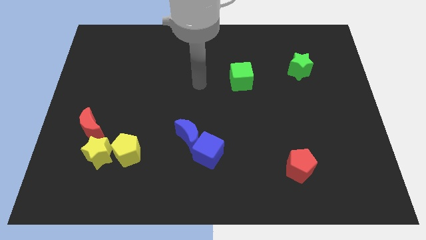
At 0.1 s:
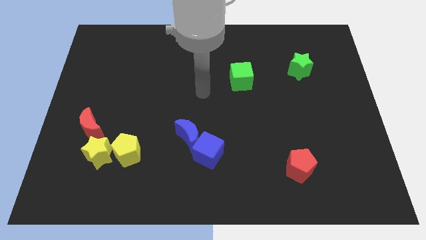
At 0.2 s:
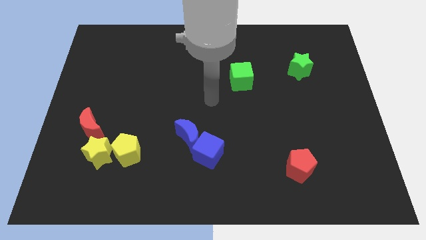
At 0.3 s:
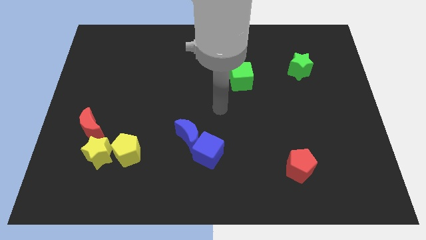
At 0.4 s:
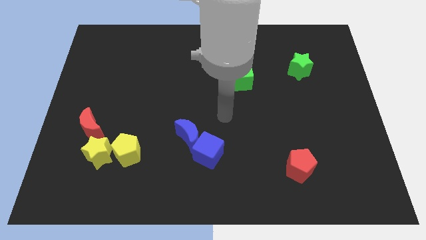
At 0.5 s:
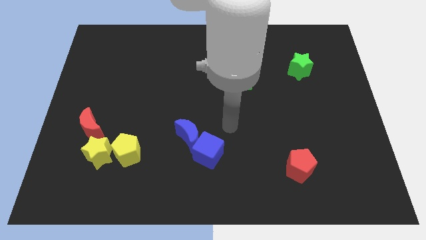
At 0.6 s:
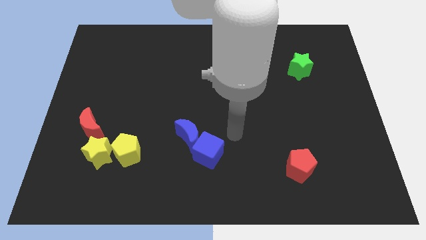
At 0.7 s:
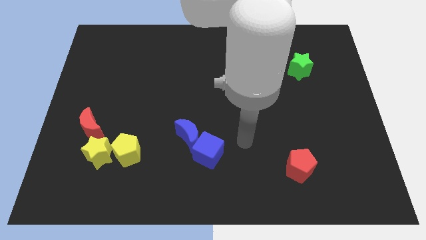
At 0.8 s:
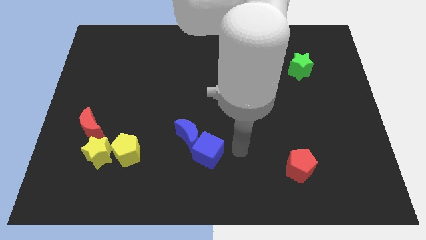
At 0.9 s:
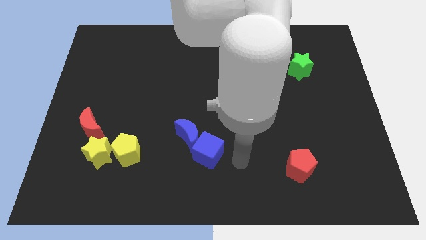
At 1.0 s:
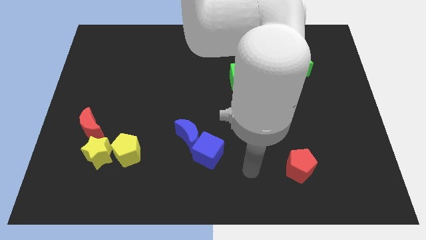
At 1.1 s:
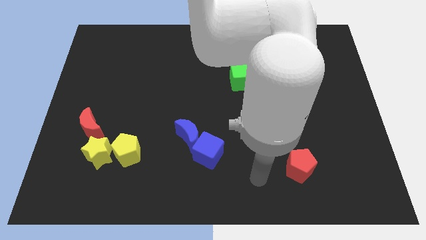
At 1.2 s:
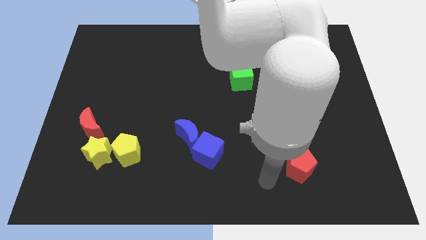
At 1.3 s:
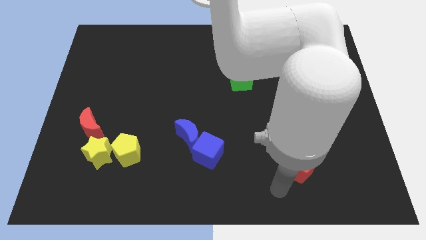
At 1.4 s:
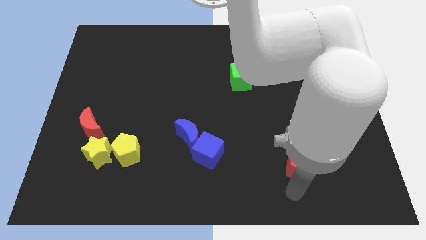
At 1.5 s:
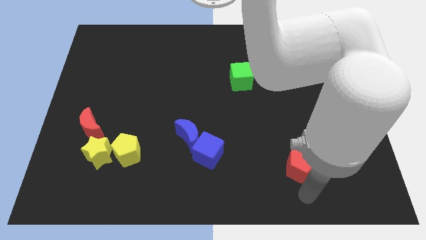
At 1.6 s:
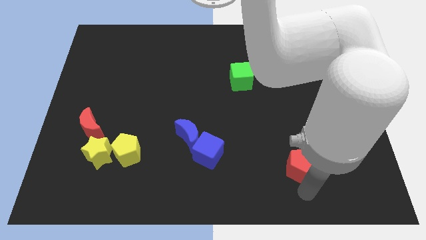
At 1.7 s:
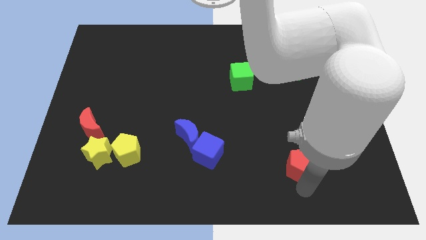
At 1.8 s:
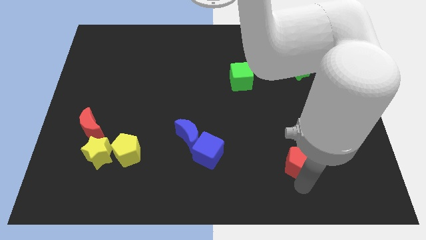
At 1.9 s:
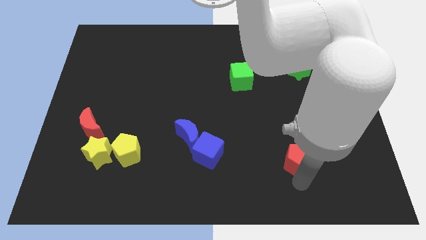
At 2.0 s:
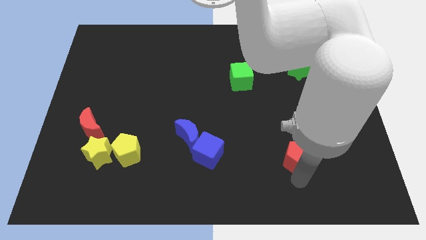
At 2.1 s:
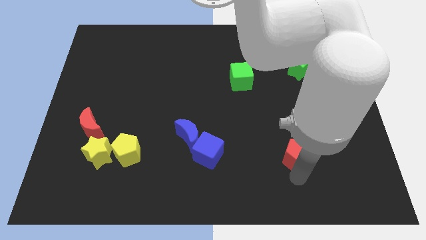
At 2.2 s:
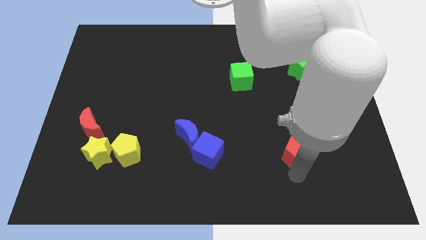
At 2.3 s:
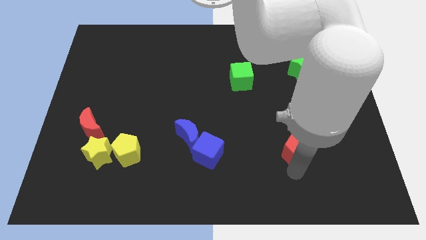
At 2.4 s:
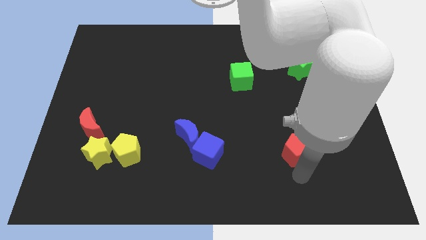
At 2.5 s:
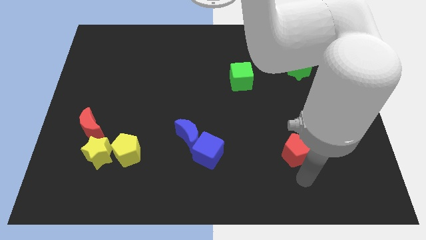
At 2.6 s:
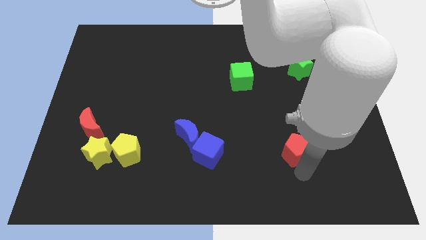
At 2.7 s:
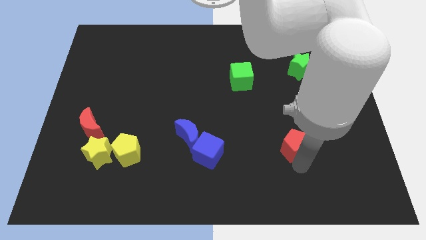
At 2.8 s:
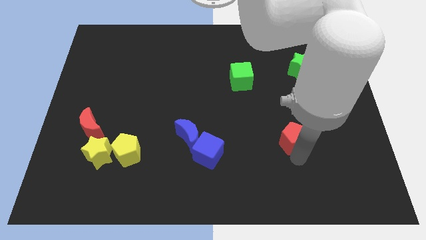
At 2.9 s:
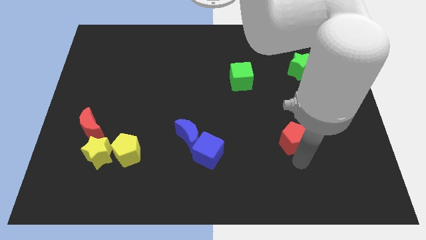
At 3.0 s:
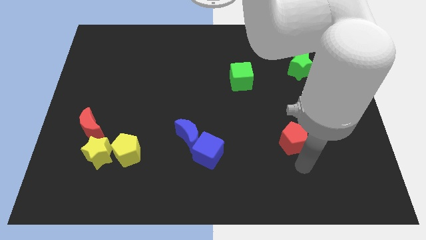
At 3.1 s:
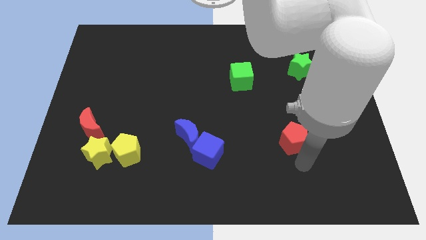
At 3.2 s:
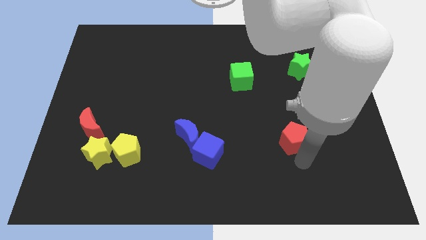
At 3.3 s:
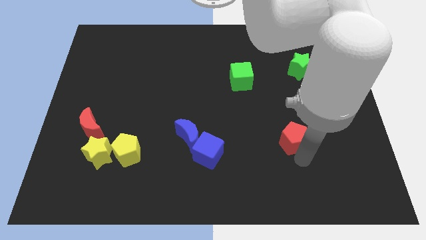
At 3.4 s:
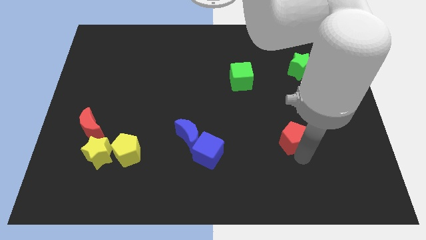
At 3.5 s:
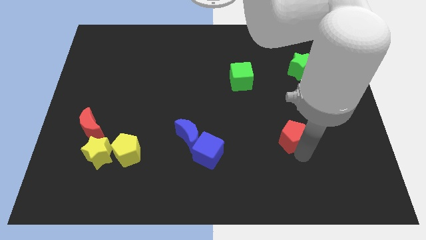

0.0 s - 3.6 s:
move the red pentagon up a bit

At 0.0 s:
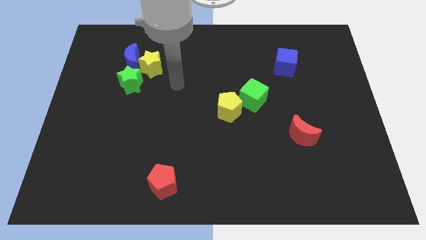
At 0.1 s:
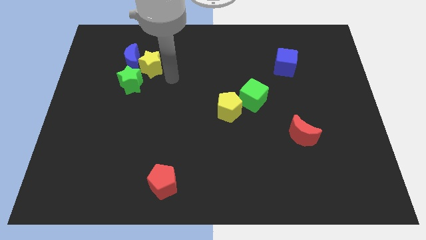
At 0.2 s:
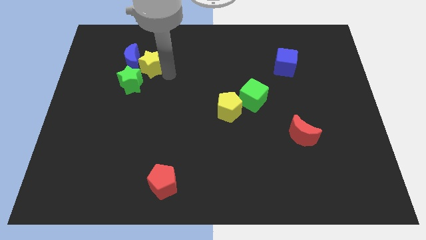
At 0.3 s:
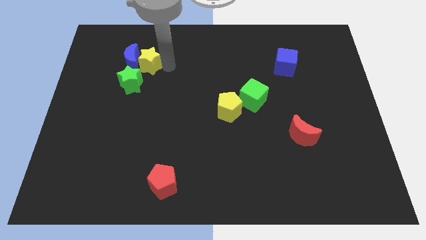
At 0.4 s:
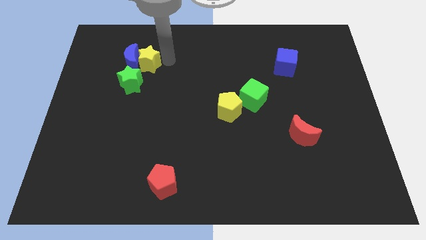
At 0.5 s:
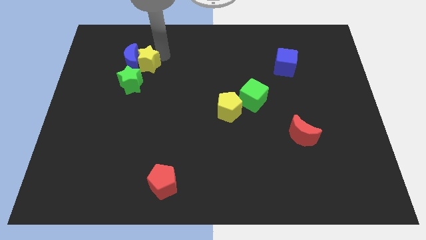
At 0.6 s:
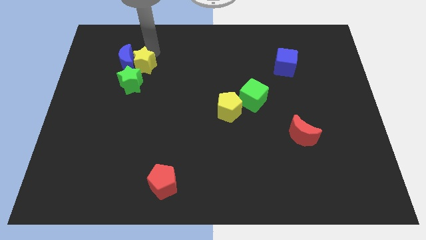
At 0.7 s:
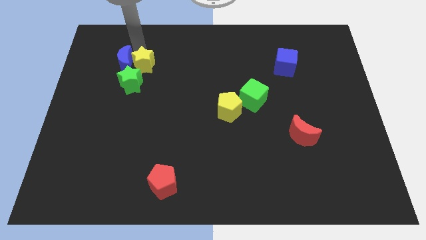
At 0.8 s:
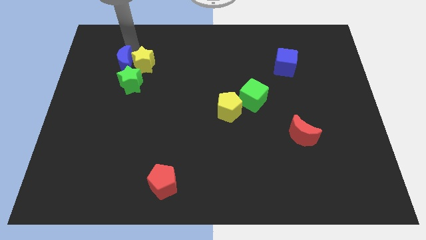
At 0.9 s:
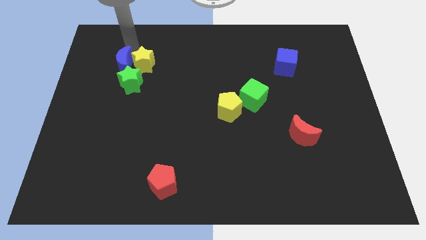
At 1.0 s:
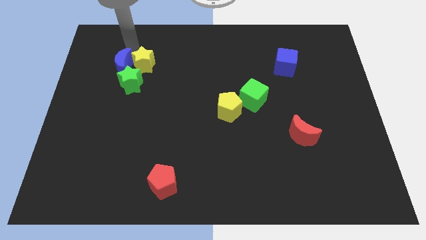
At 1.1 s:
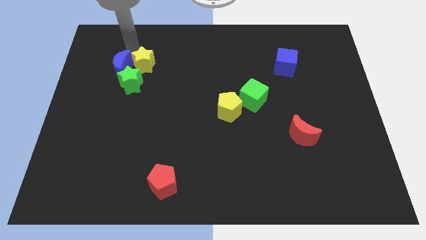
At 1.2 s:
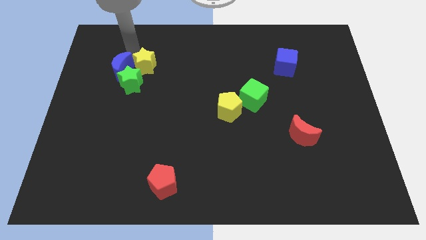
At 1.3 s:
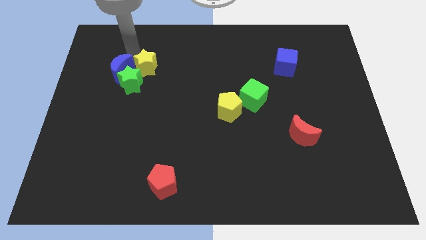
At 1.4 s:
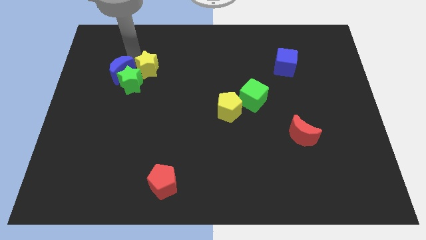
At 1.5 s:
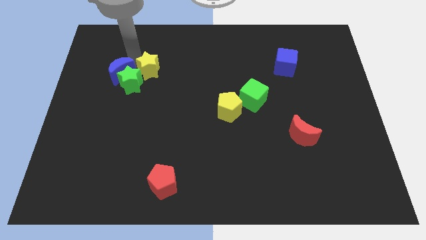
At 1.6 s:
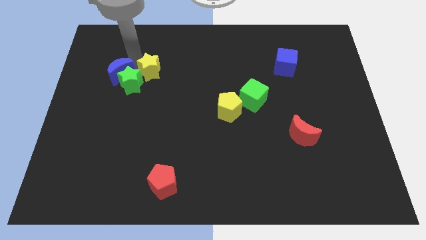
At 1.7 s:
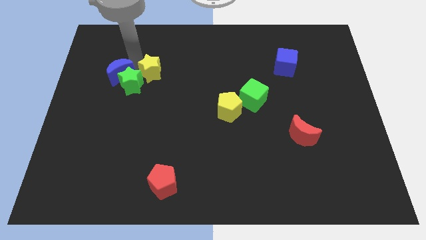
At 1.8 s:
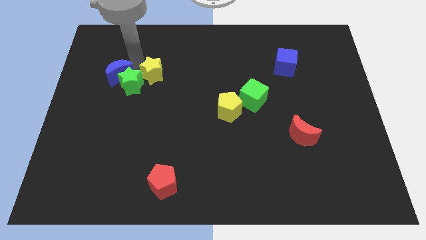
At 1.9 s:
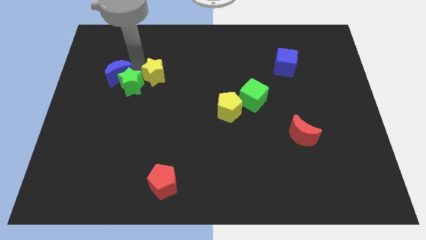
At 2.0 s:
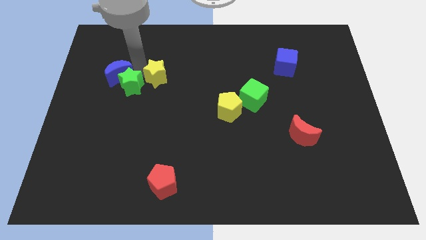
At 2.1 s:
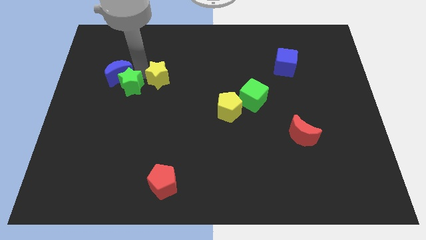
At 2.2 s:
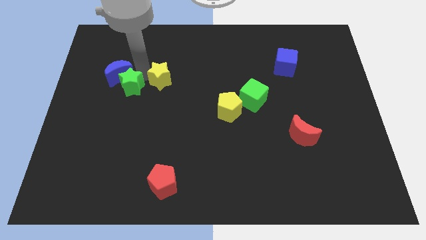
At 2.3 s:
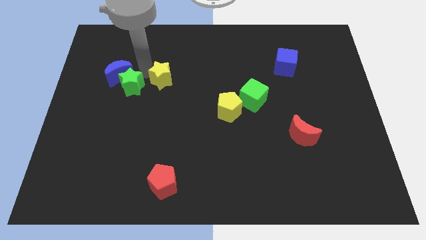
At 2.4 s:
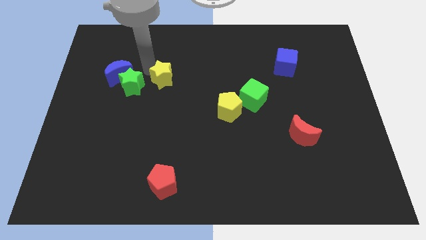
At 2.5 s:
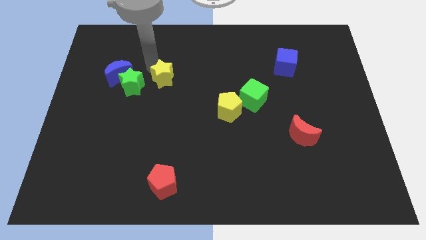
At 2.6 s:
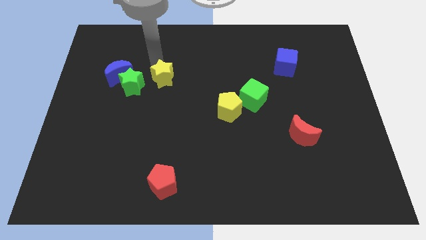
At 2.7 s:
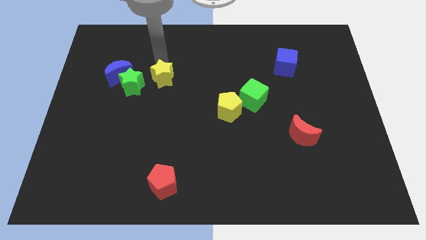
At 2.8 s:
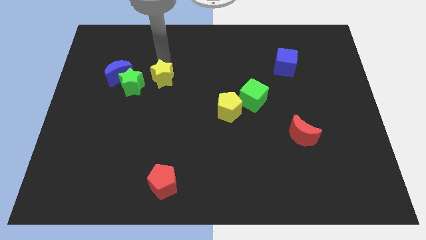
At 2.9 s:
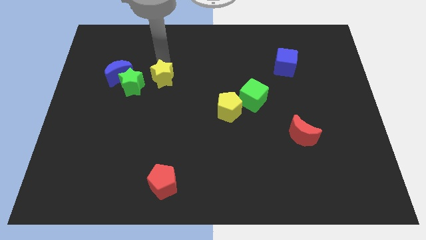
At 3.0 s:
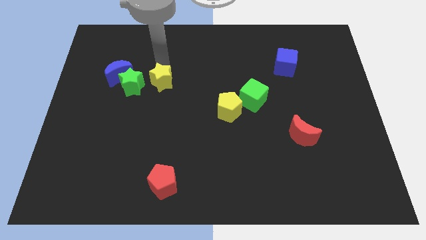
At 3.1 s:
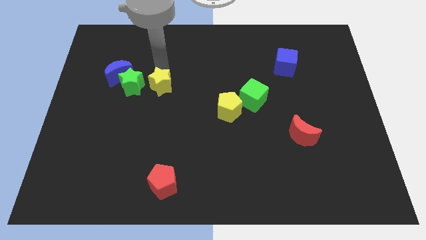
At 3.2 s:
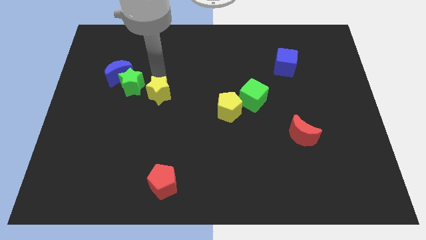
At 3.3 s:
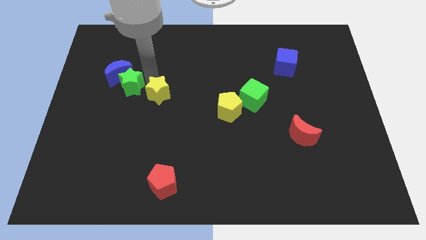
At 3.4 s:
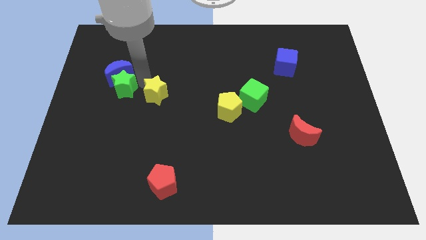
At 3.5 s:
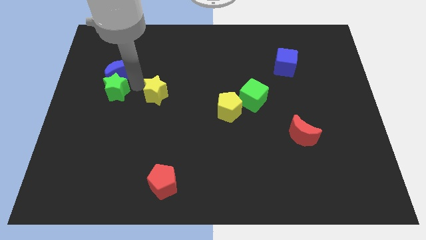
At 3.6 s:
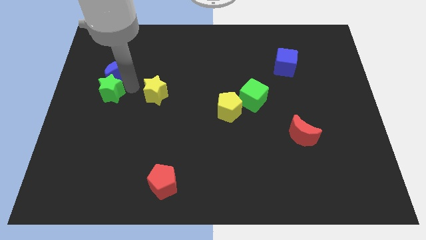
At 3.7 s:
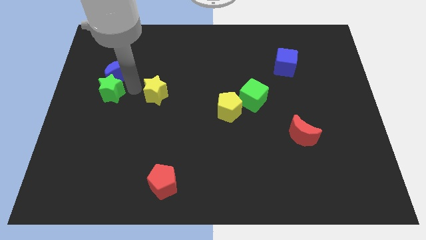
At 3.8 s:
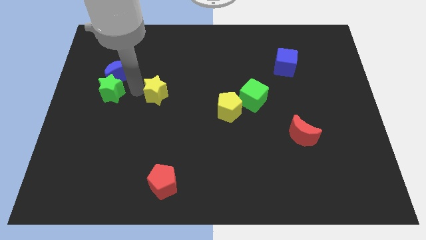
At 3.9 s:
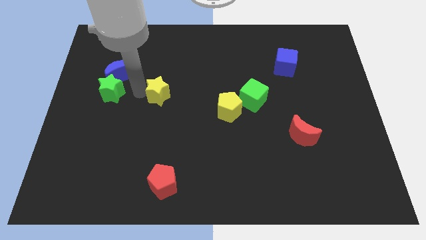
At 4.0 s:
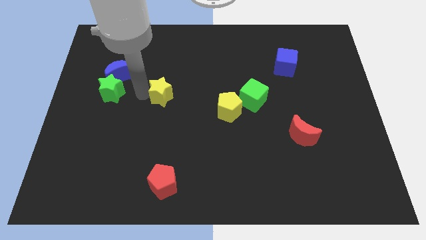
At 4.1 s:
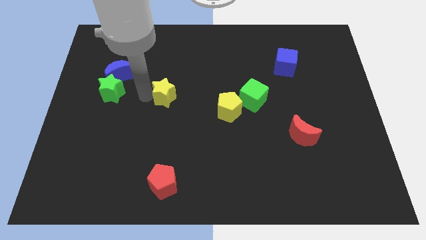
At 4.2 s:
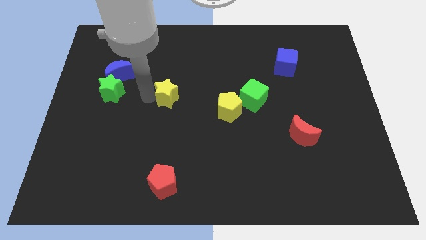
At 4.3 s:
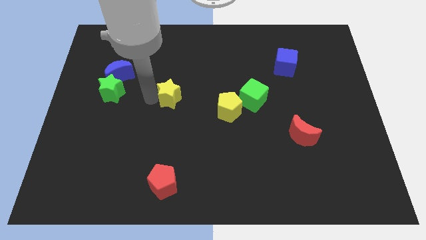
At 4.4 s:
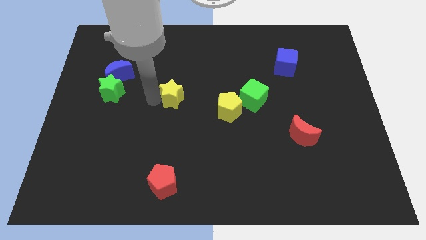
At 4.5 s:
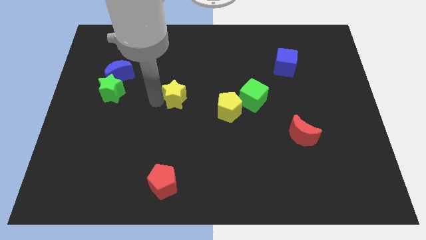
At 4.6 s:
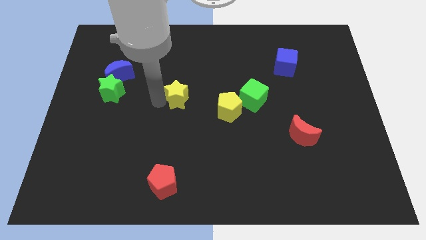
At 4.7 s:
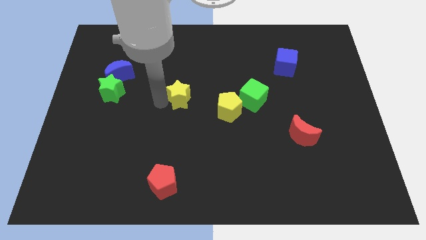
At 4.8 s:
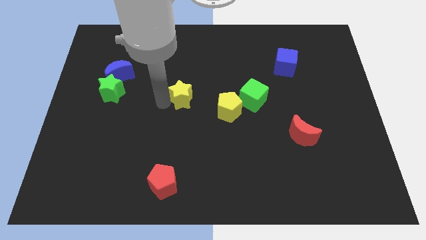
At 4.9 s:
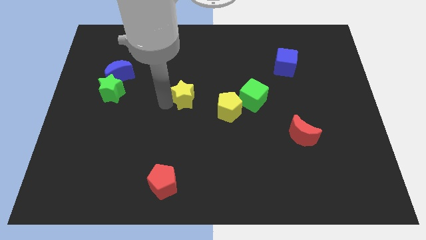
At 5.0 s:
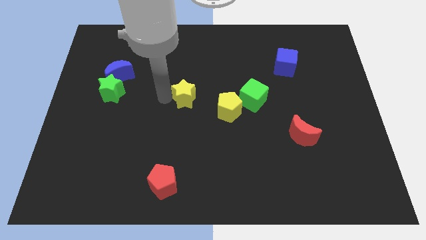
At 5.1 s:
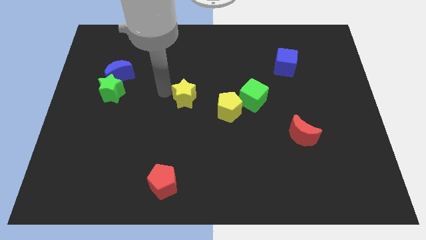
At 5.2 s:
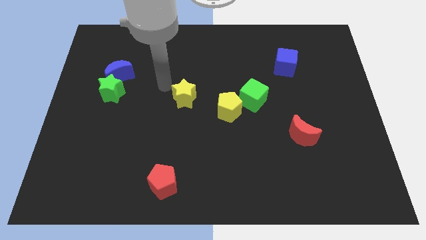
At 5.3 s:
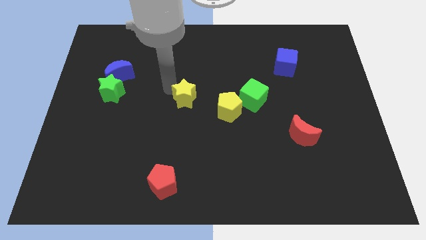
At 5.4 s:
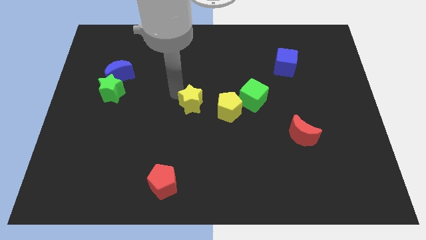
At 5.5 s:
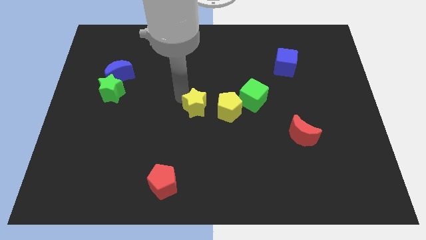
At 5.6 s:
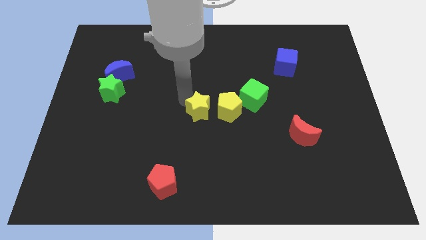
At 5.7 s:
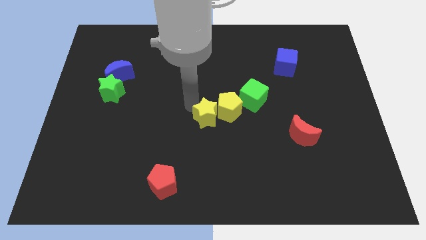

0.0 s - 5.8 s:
move the yellow star down and to the right
